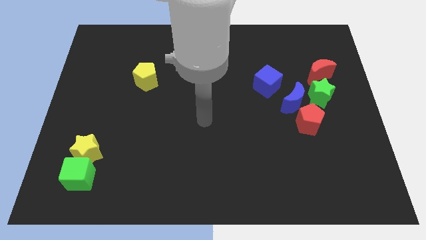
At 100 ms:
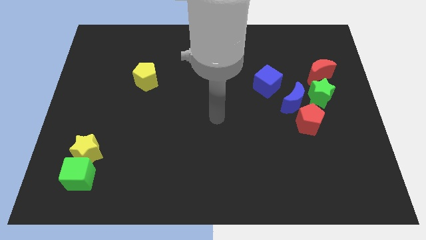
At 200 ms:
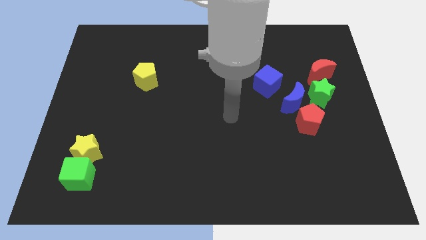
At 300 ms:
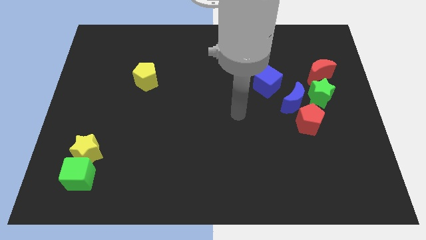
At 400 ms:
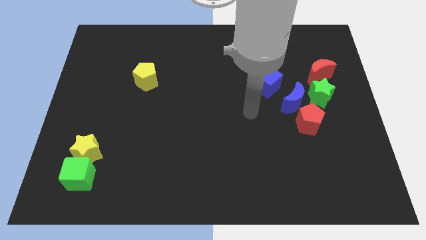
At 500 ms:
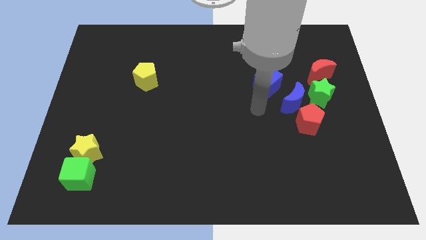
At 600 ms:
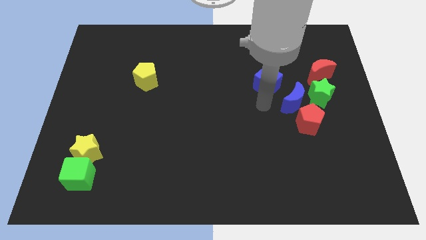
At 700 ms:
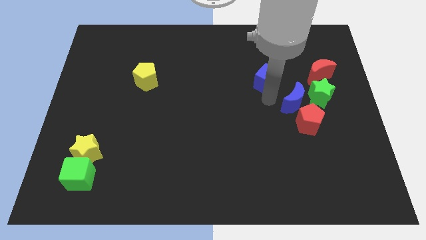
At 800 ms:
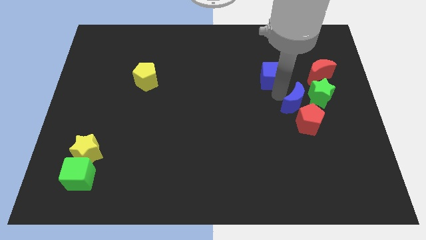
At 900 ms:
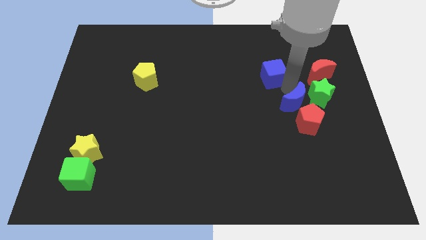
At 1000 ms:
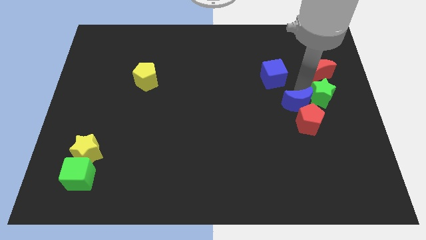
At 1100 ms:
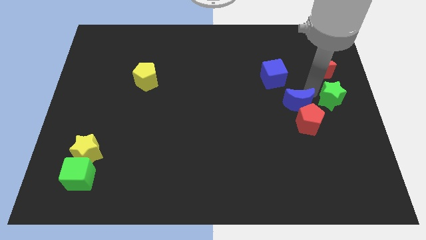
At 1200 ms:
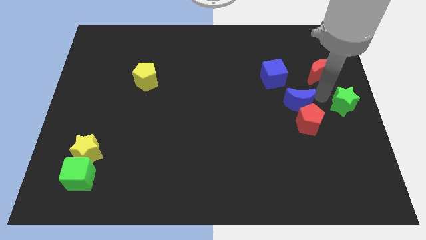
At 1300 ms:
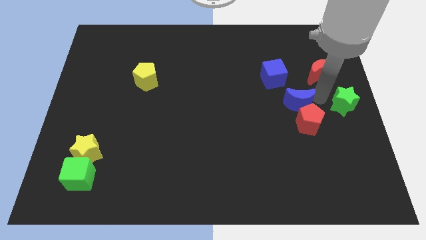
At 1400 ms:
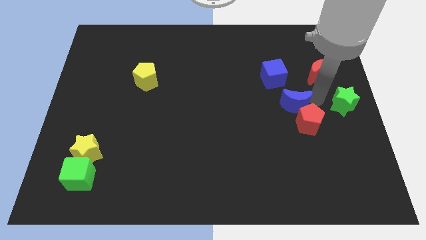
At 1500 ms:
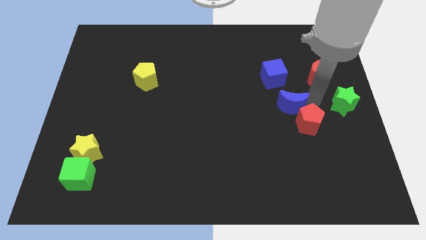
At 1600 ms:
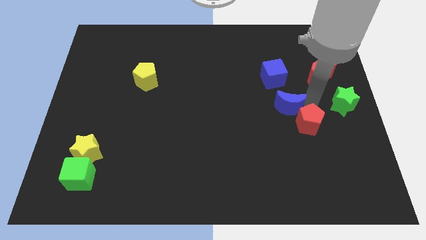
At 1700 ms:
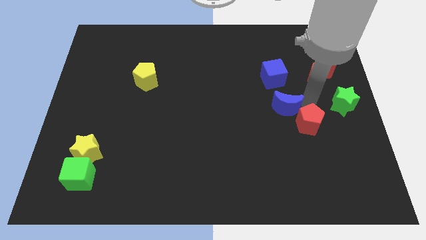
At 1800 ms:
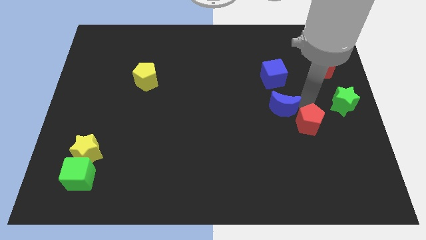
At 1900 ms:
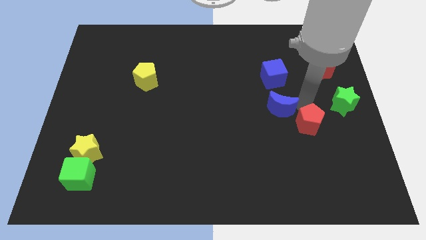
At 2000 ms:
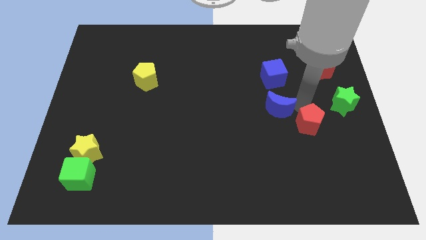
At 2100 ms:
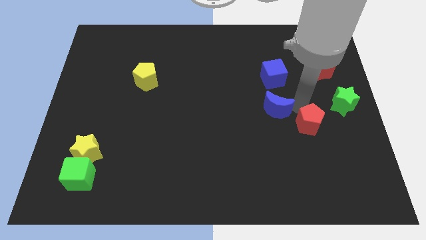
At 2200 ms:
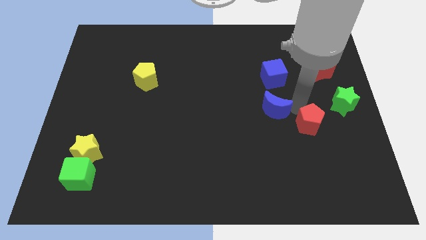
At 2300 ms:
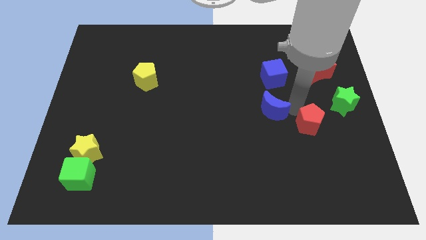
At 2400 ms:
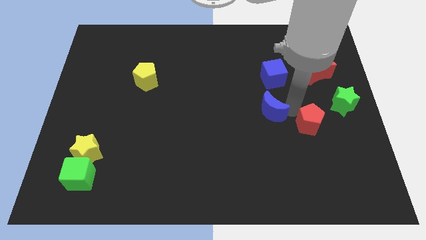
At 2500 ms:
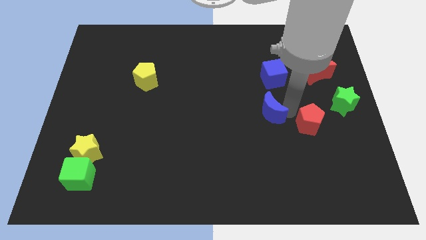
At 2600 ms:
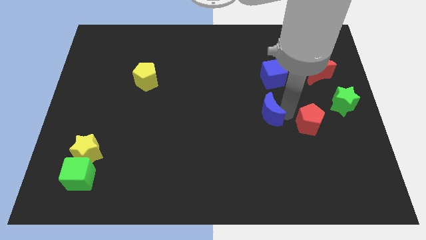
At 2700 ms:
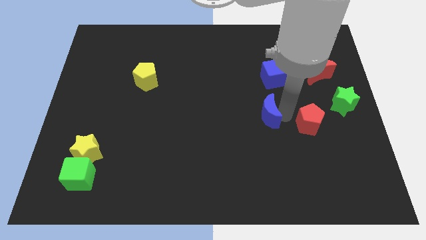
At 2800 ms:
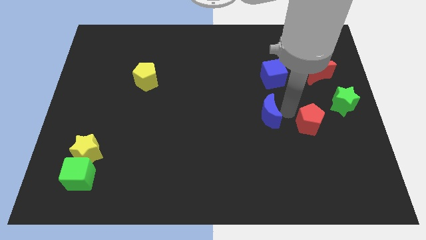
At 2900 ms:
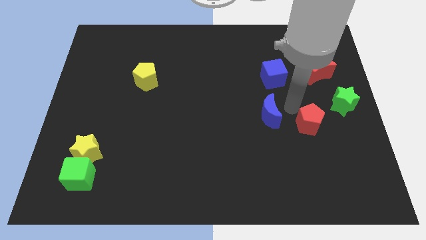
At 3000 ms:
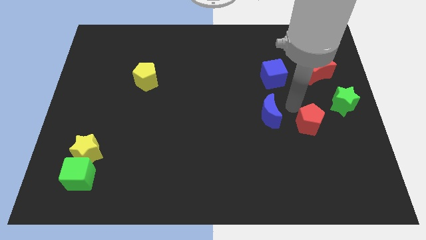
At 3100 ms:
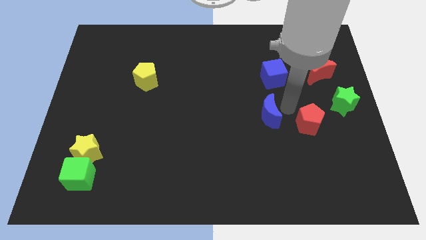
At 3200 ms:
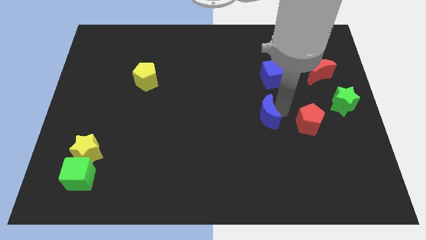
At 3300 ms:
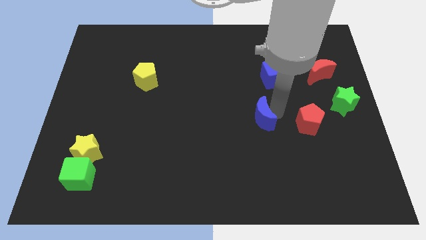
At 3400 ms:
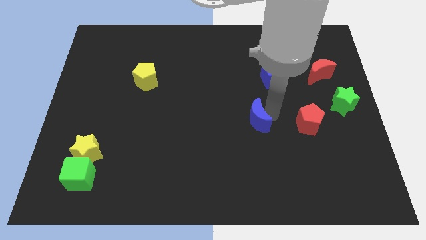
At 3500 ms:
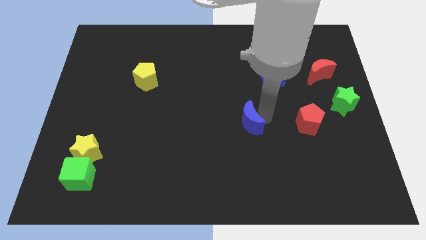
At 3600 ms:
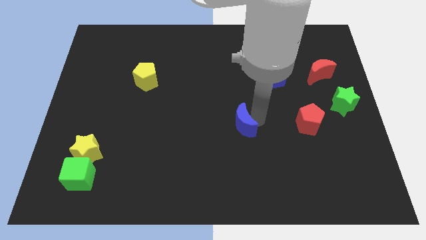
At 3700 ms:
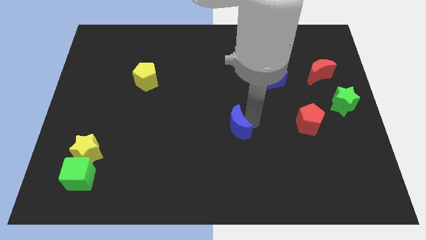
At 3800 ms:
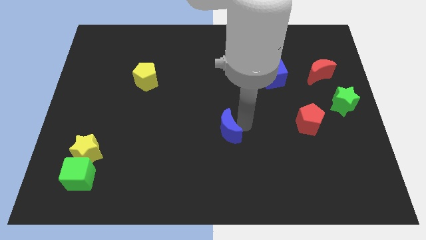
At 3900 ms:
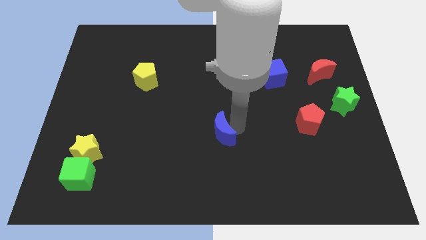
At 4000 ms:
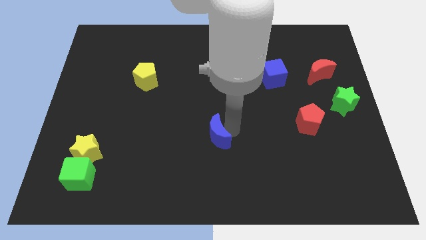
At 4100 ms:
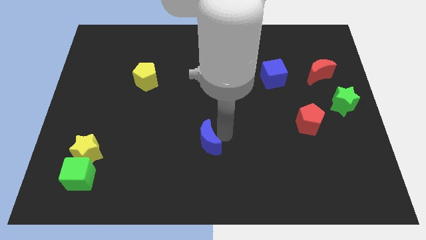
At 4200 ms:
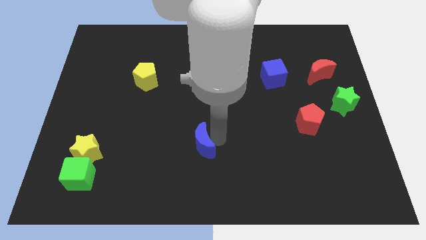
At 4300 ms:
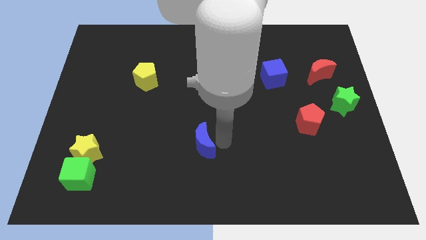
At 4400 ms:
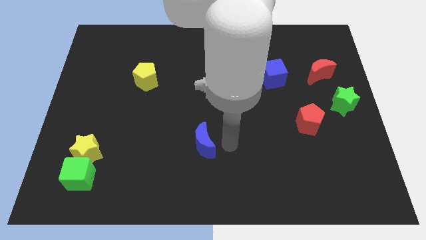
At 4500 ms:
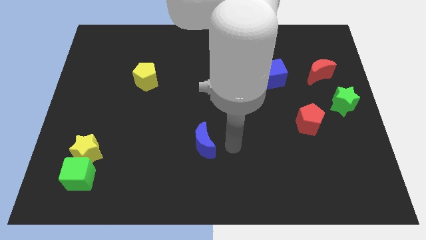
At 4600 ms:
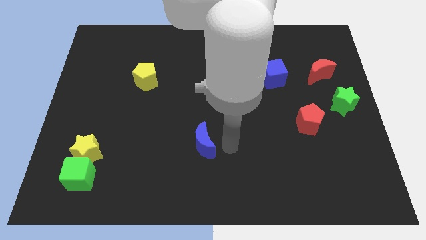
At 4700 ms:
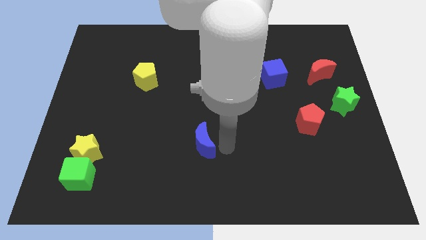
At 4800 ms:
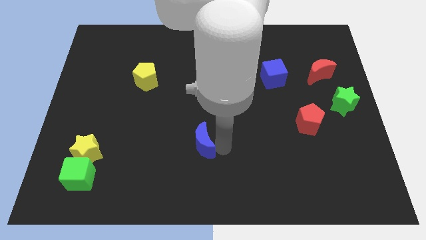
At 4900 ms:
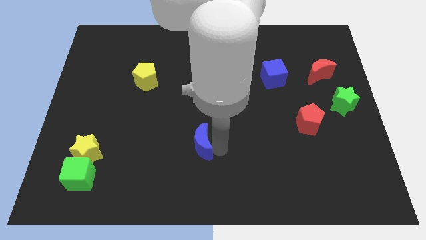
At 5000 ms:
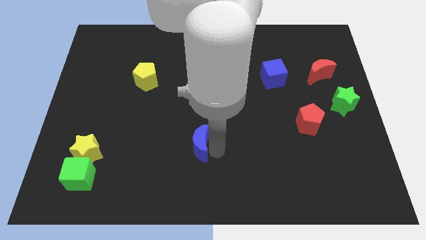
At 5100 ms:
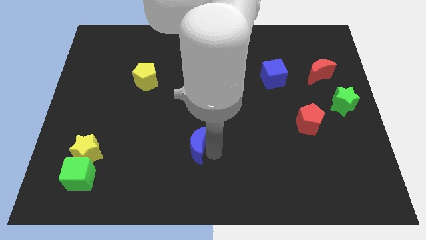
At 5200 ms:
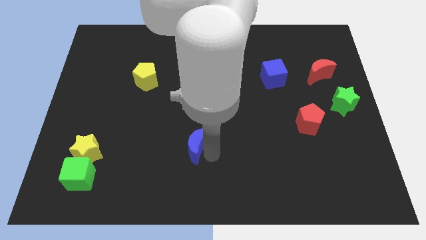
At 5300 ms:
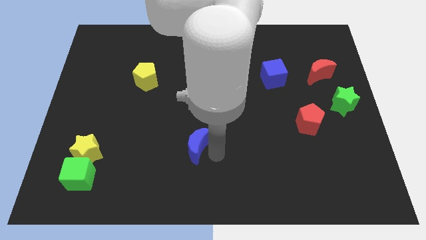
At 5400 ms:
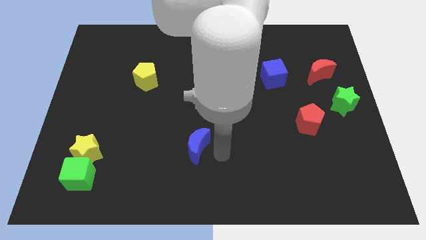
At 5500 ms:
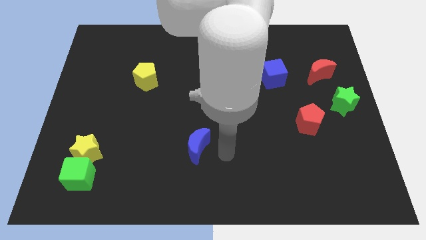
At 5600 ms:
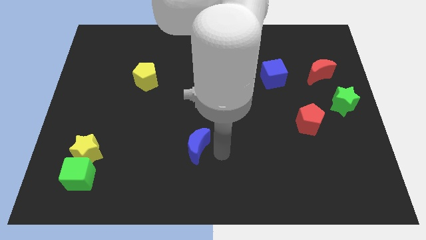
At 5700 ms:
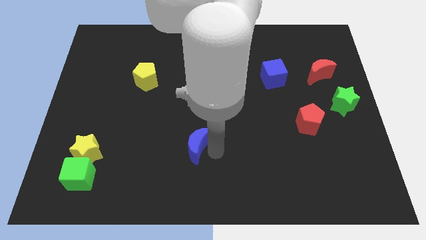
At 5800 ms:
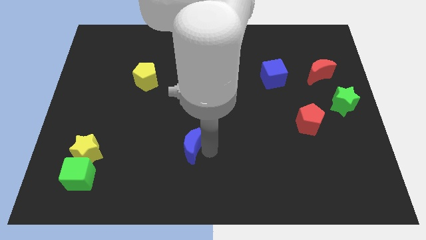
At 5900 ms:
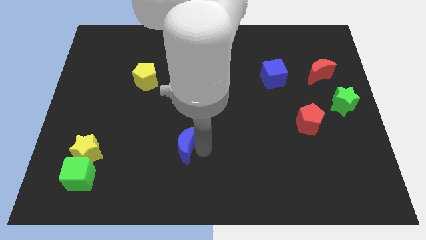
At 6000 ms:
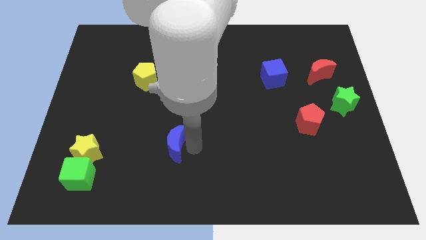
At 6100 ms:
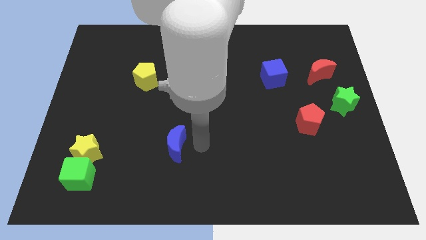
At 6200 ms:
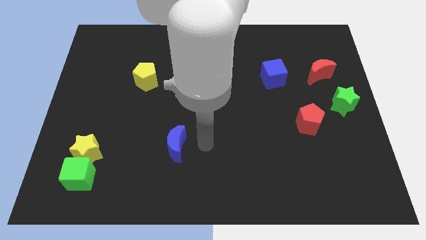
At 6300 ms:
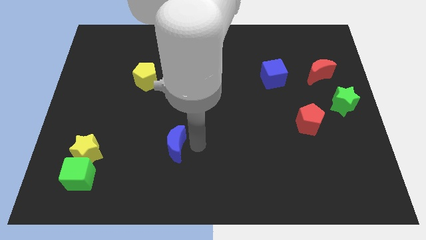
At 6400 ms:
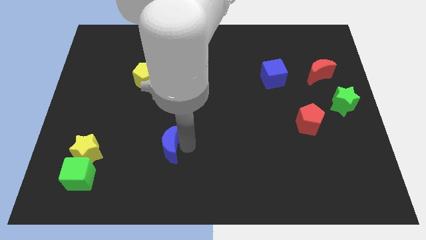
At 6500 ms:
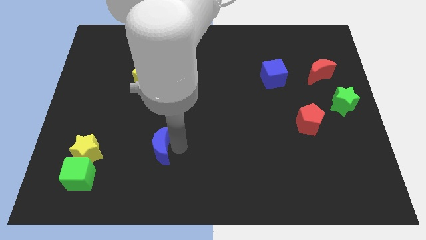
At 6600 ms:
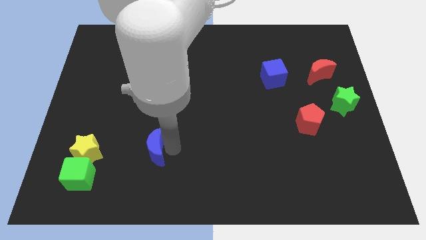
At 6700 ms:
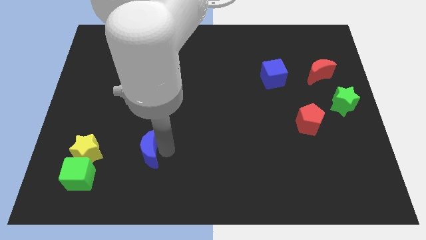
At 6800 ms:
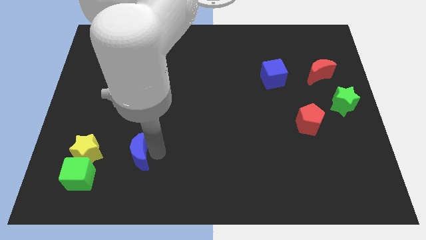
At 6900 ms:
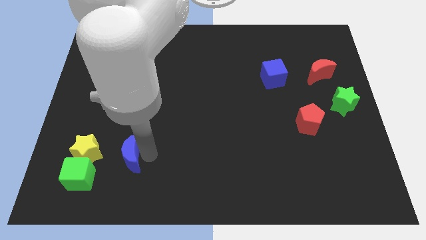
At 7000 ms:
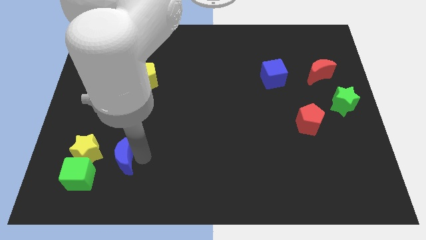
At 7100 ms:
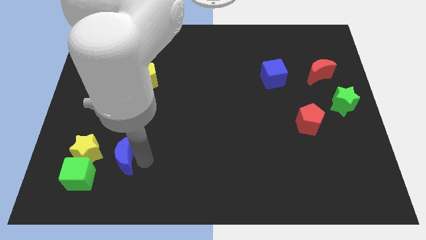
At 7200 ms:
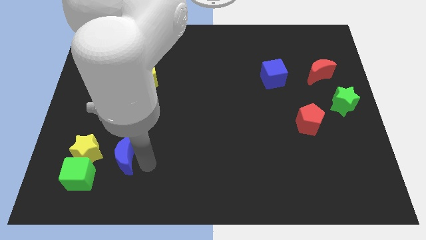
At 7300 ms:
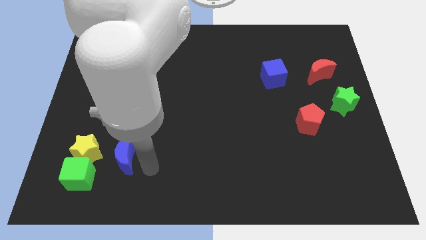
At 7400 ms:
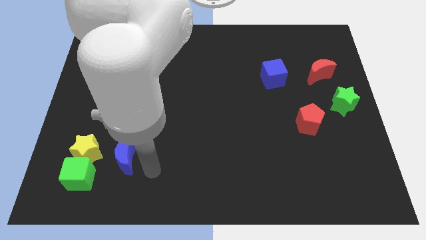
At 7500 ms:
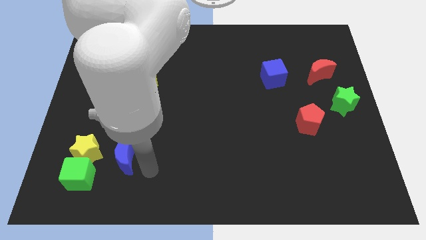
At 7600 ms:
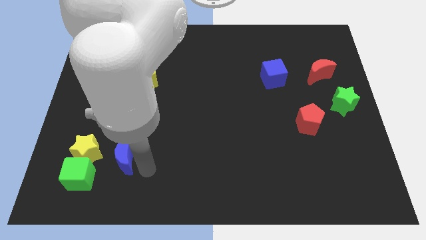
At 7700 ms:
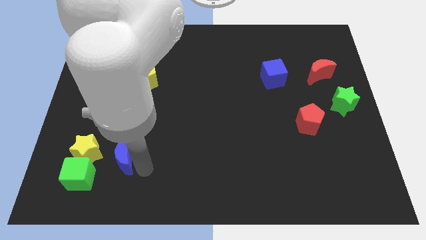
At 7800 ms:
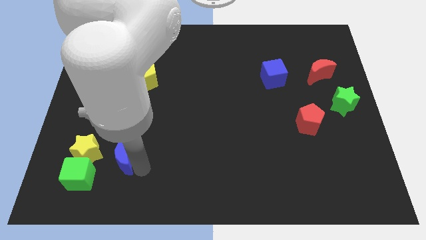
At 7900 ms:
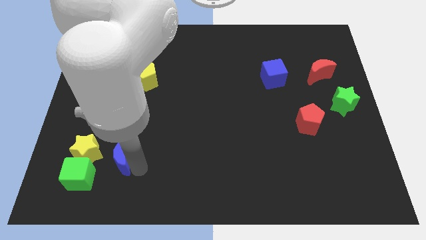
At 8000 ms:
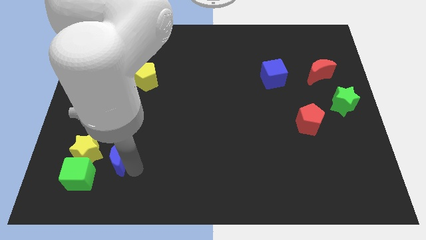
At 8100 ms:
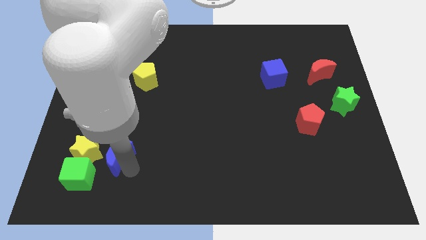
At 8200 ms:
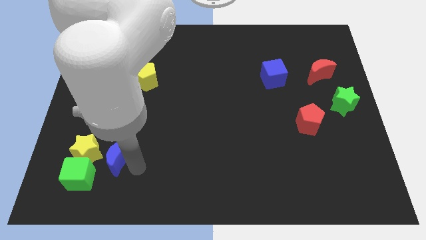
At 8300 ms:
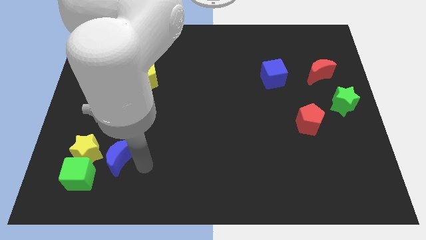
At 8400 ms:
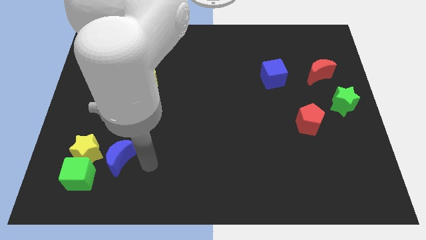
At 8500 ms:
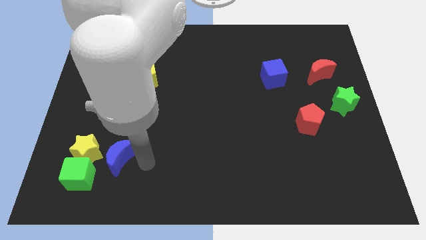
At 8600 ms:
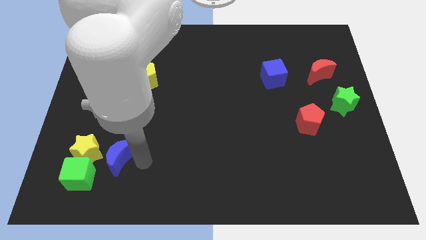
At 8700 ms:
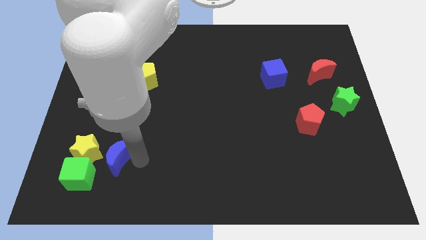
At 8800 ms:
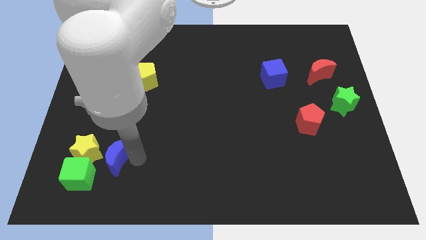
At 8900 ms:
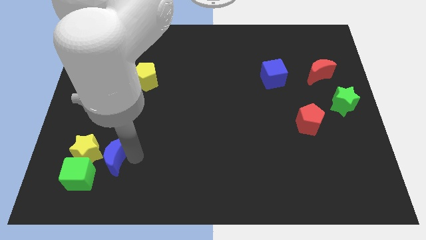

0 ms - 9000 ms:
push the blue moon close to the yellow star
